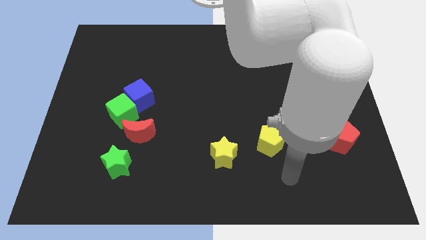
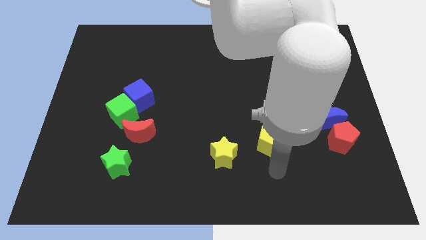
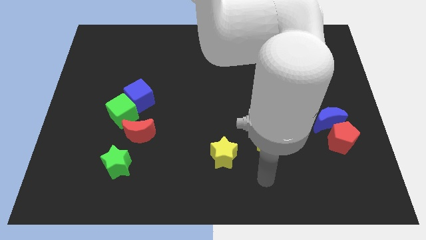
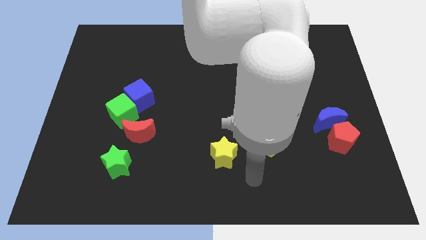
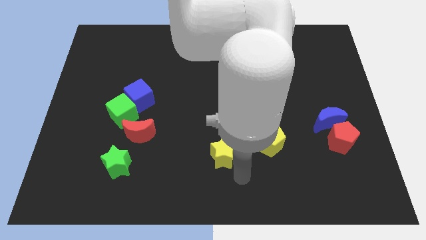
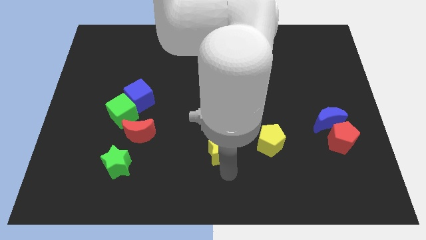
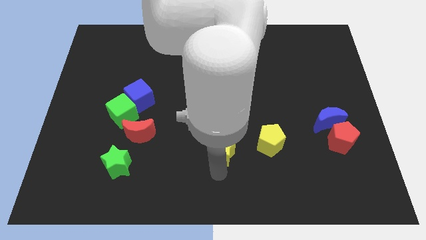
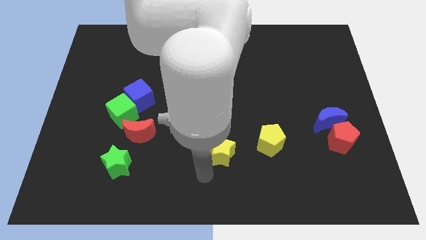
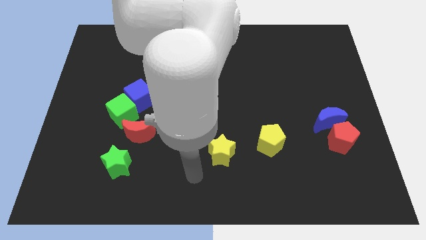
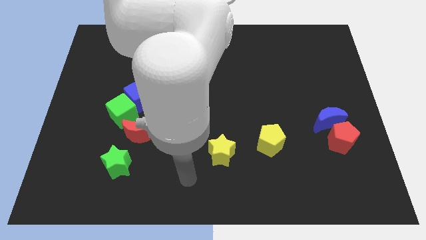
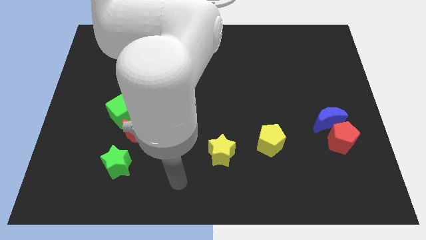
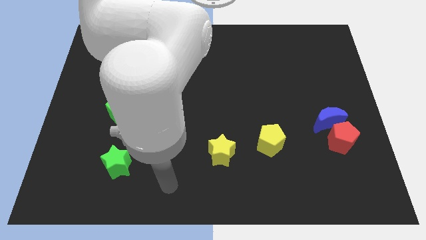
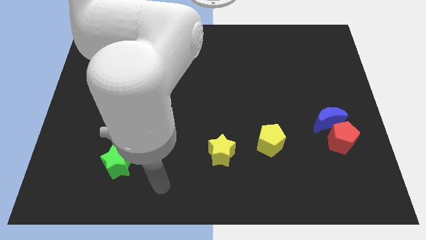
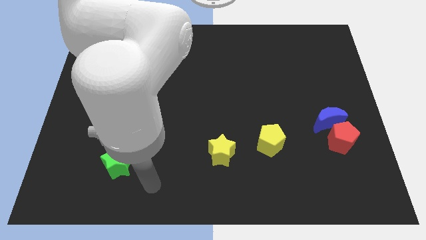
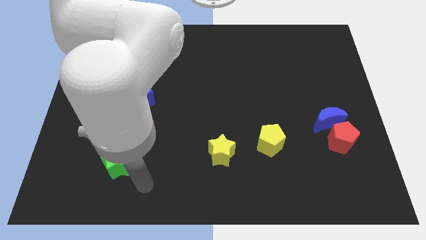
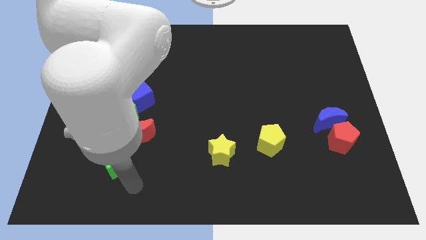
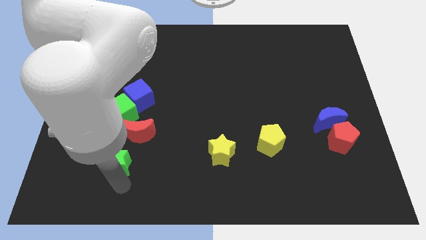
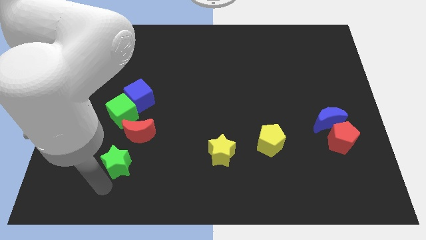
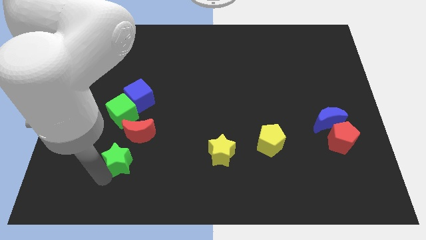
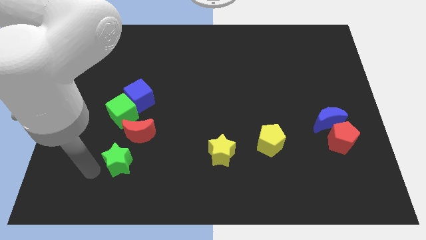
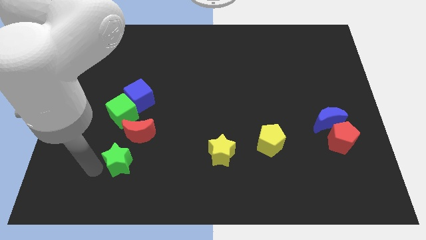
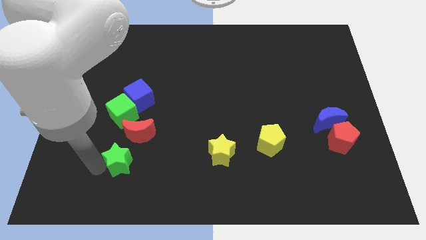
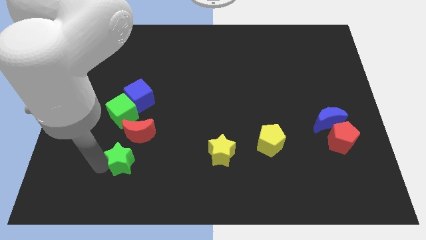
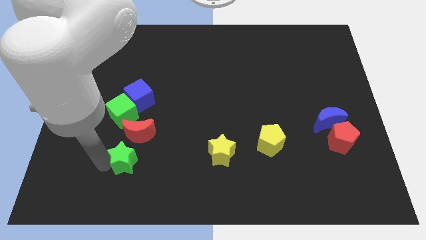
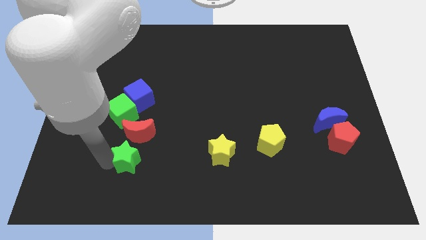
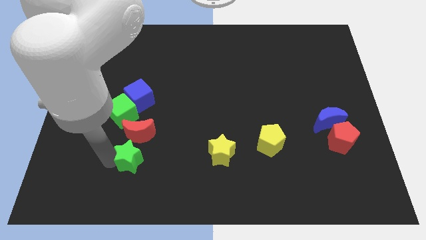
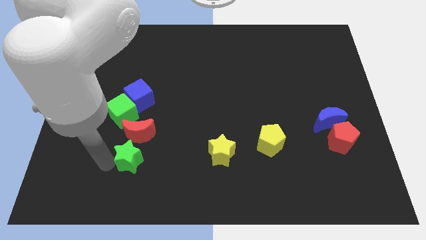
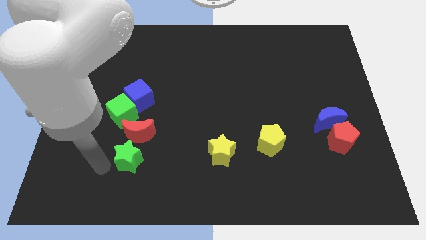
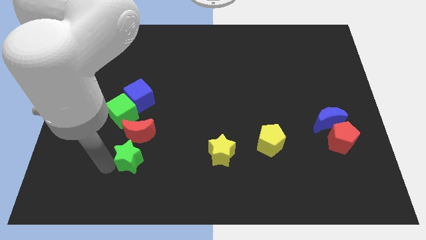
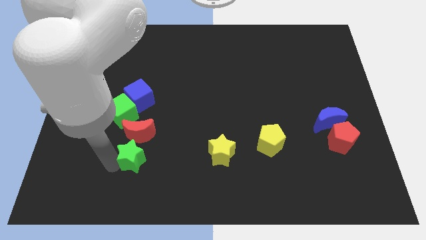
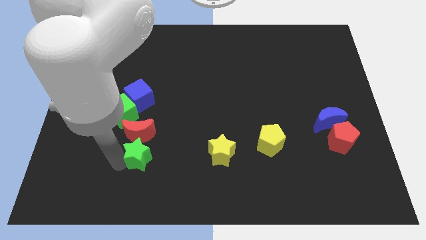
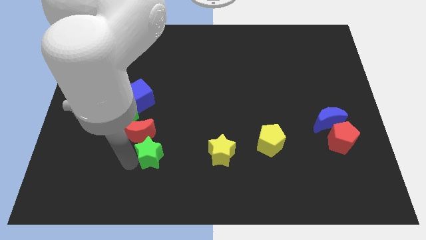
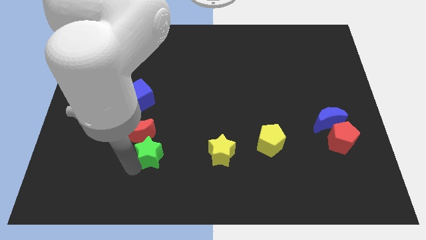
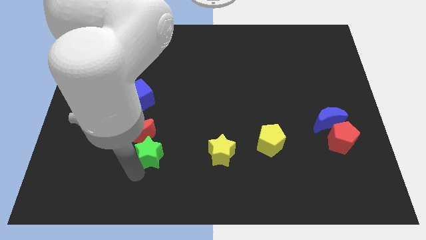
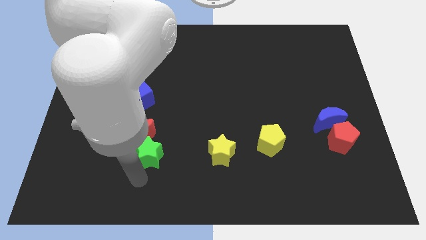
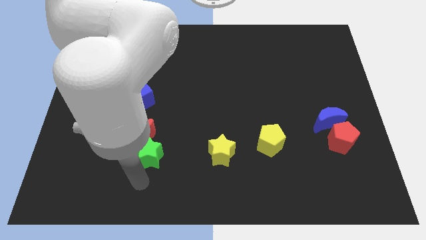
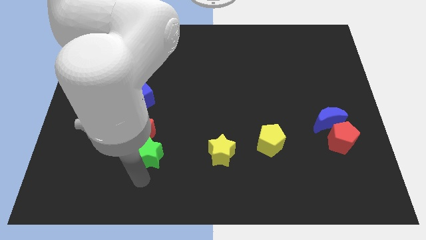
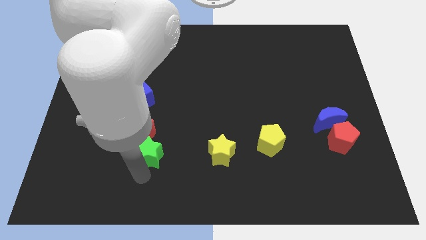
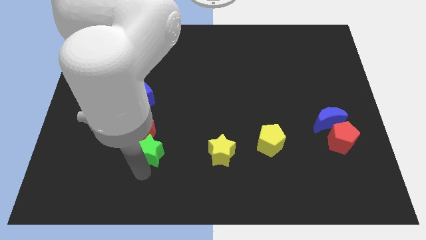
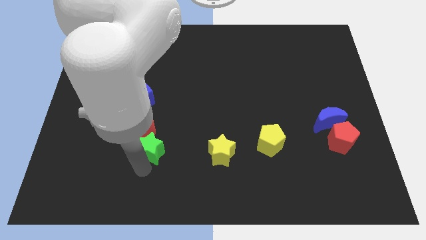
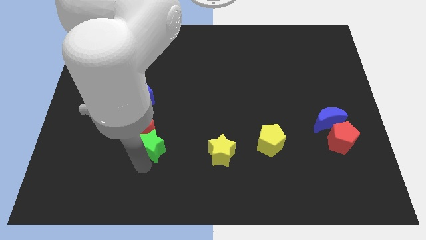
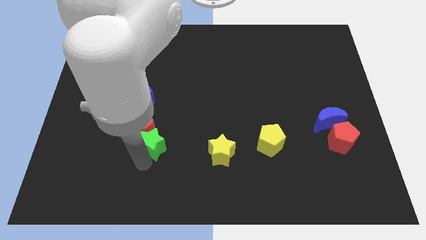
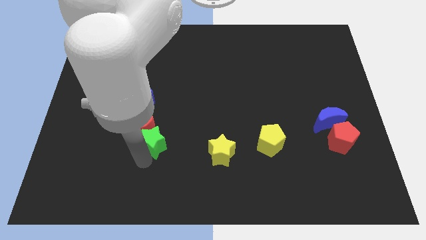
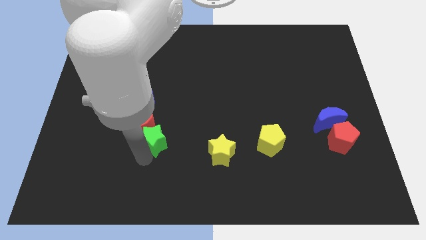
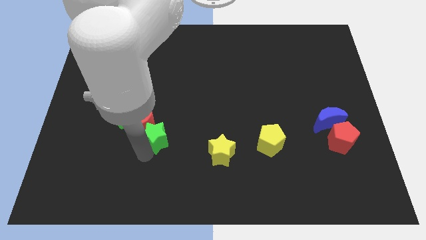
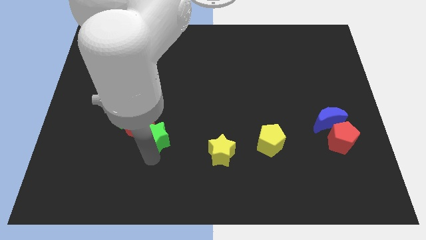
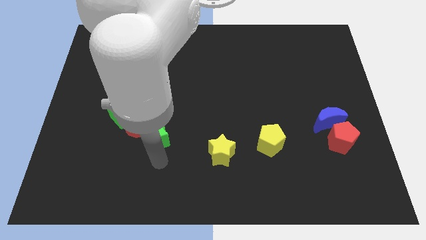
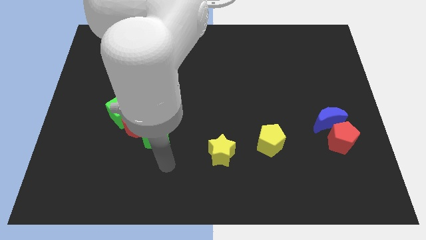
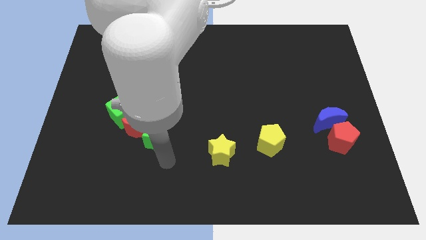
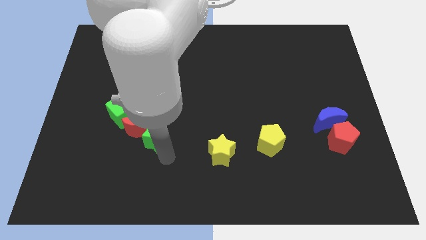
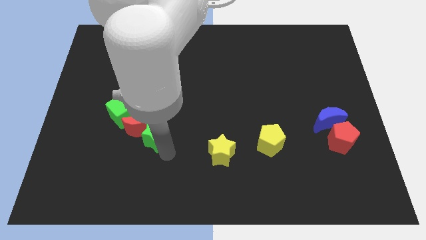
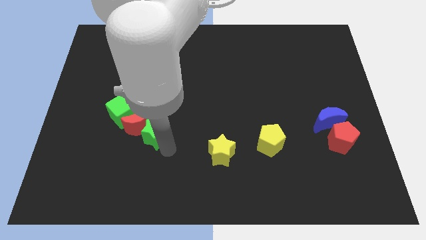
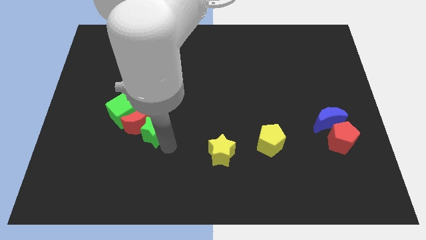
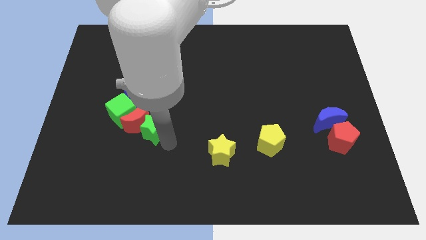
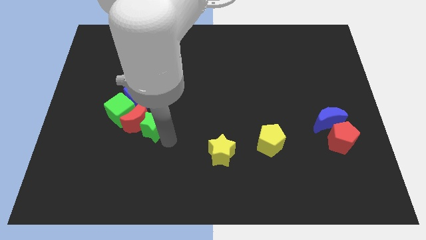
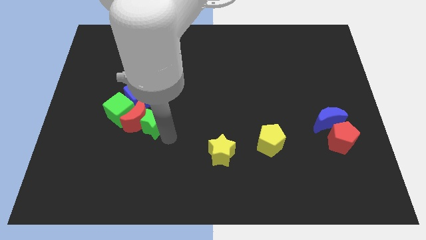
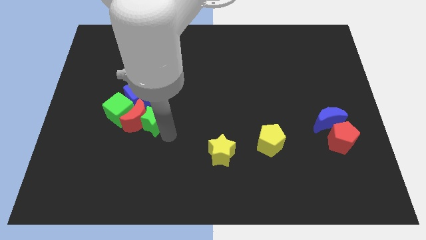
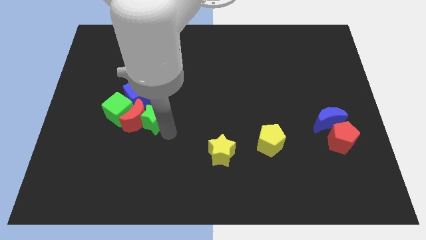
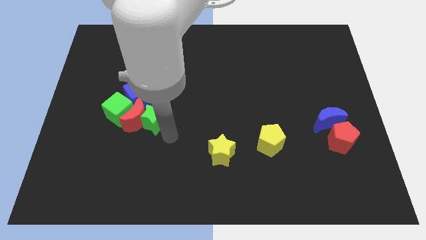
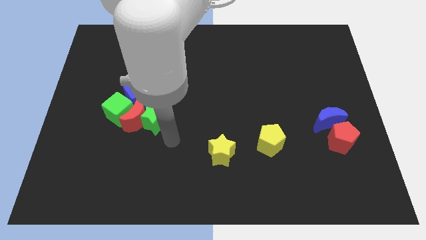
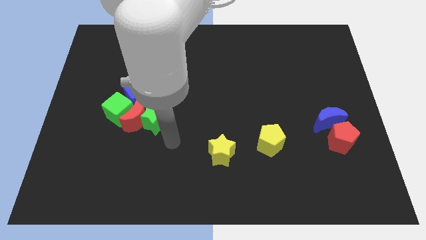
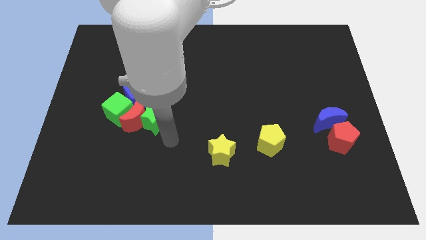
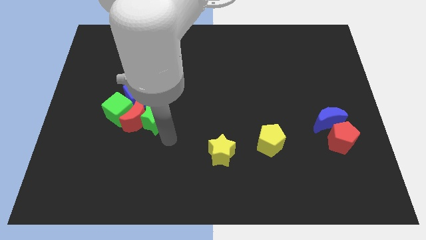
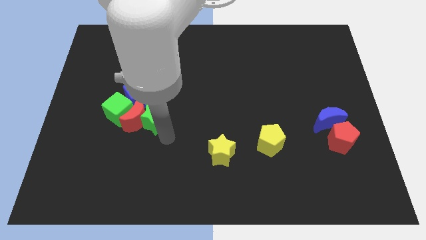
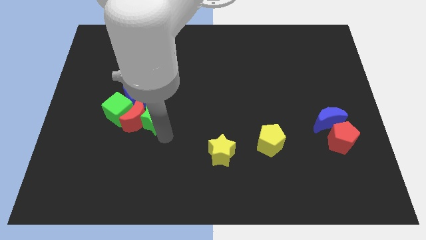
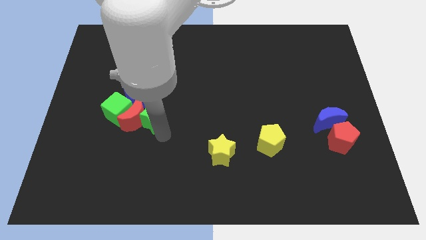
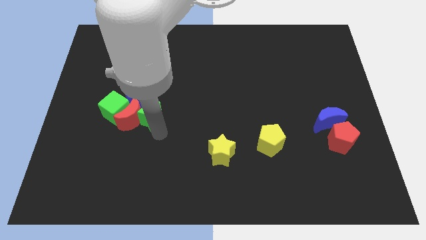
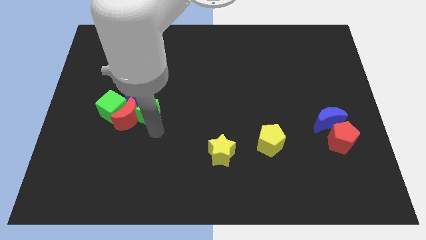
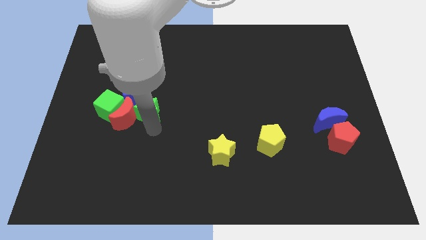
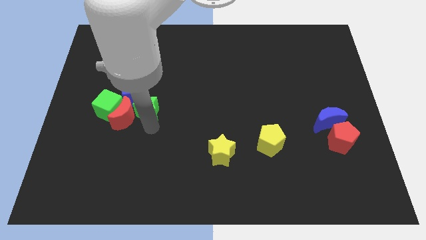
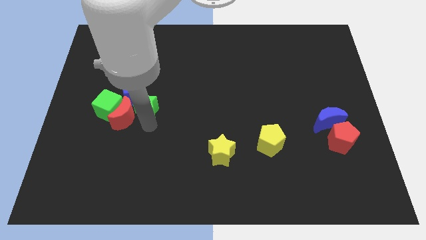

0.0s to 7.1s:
put the green star close to the blue cube
